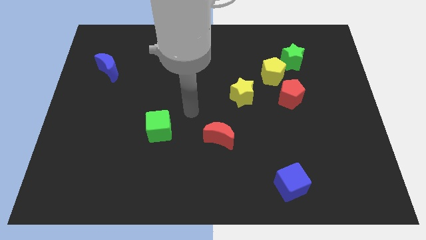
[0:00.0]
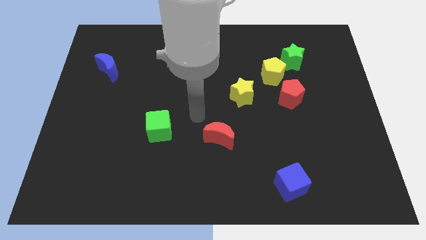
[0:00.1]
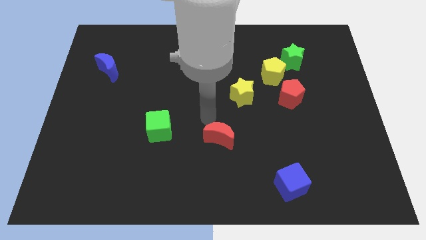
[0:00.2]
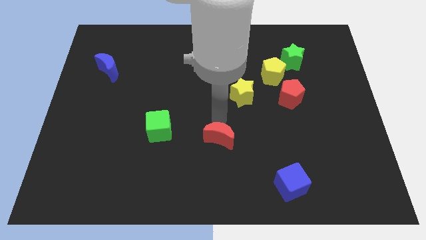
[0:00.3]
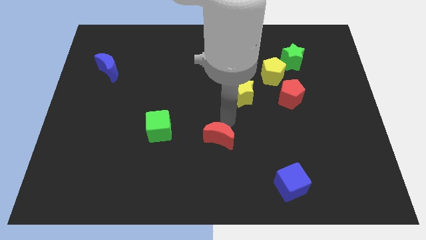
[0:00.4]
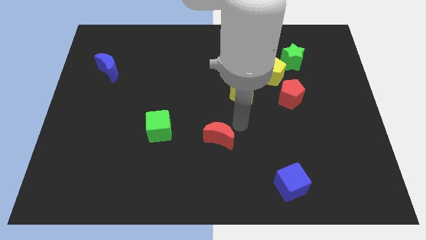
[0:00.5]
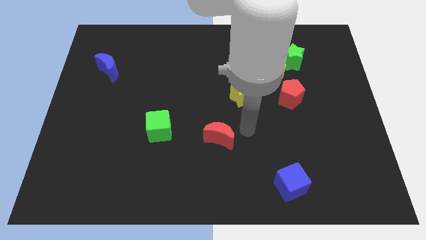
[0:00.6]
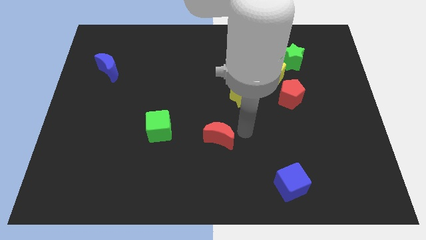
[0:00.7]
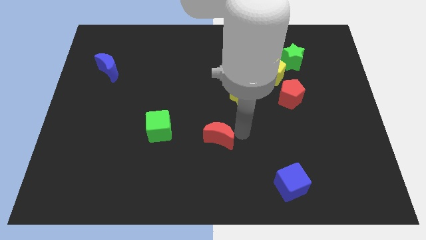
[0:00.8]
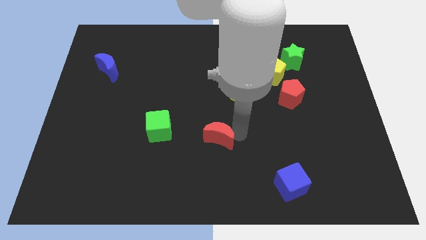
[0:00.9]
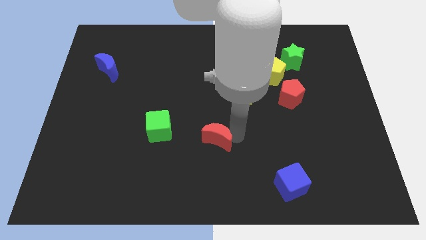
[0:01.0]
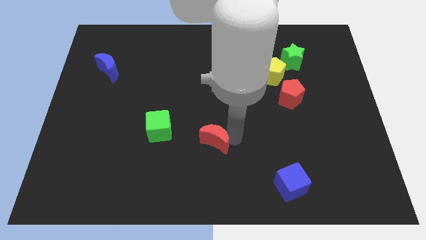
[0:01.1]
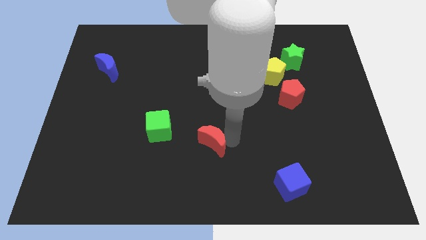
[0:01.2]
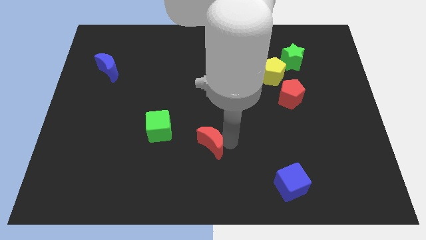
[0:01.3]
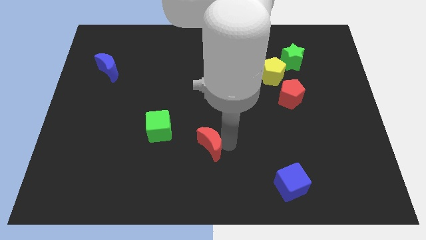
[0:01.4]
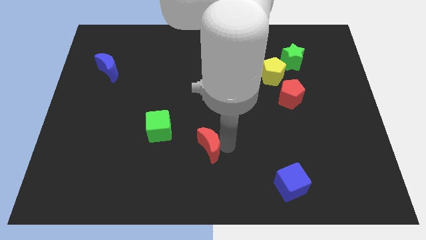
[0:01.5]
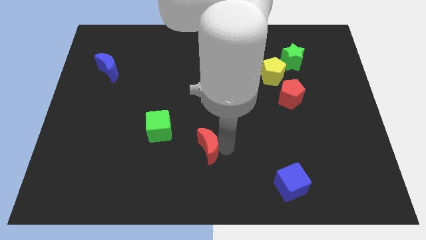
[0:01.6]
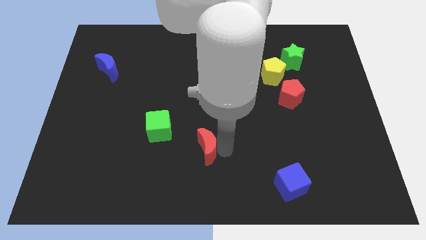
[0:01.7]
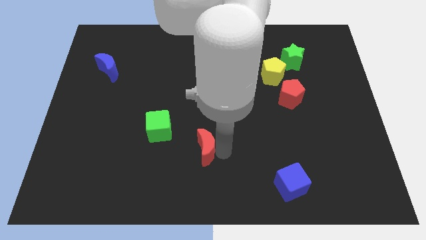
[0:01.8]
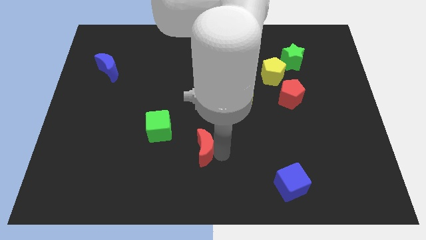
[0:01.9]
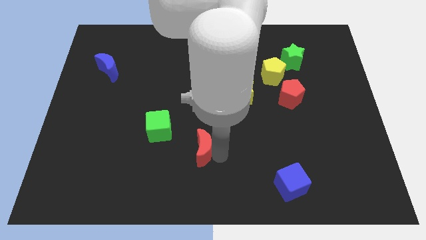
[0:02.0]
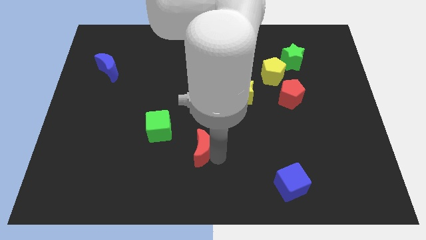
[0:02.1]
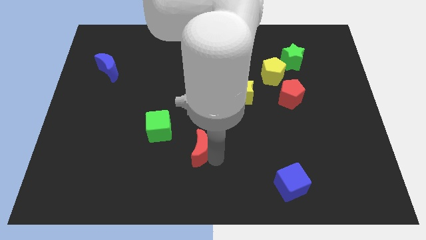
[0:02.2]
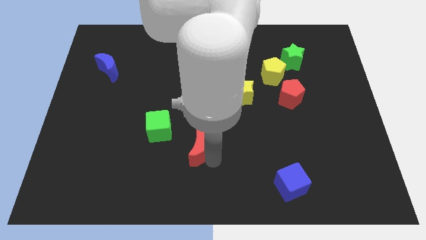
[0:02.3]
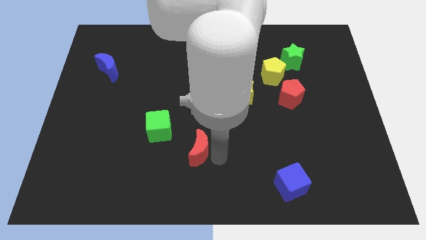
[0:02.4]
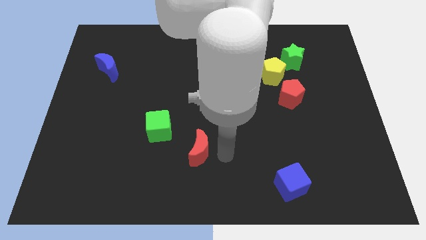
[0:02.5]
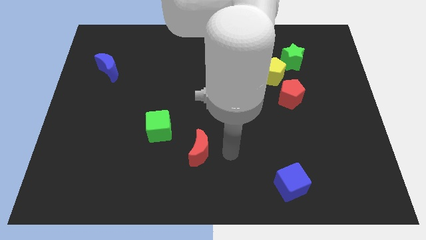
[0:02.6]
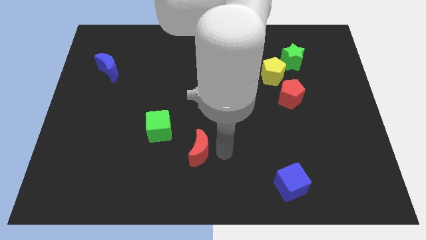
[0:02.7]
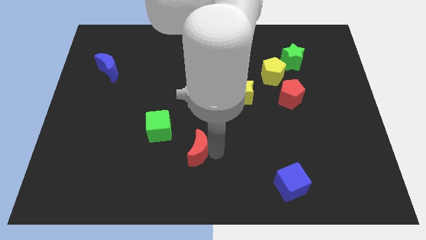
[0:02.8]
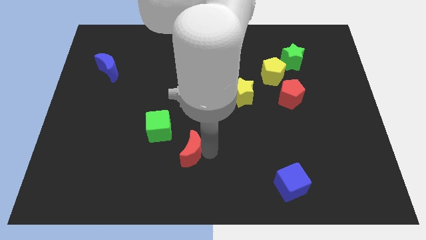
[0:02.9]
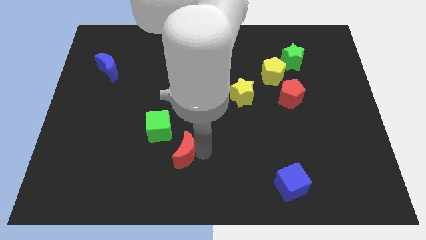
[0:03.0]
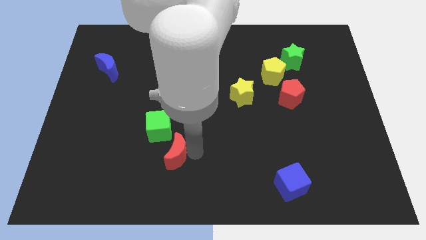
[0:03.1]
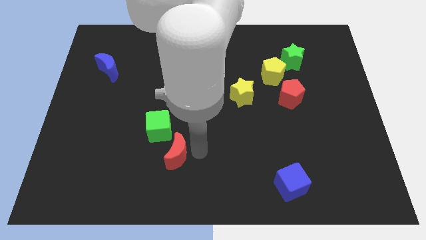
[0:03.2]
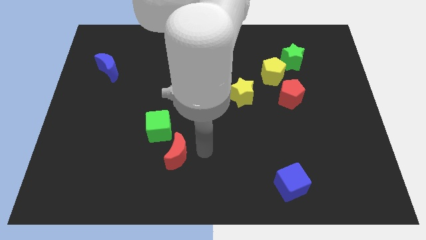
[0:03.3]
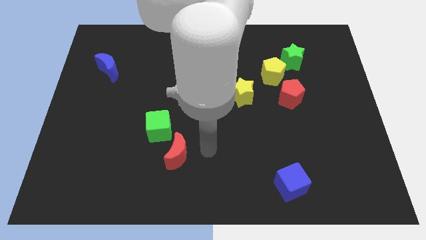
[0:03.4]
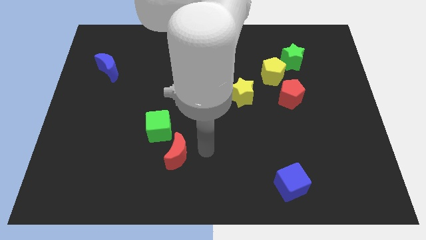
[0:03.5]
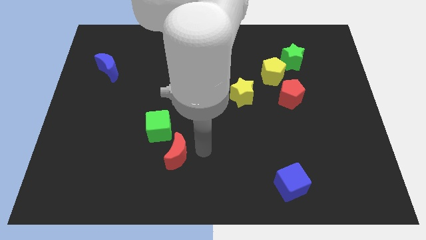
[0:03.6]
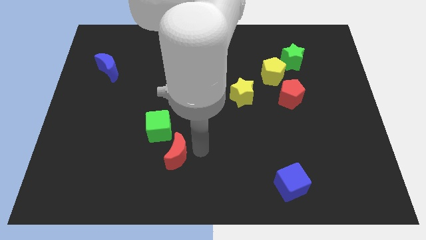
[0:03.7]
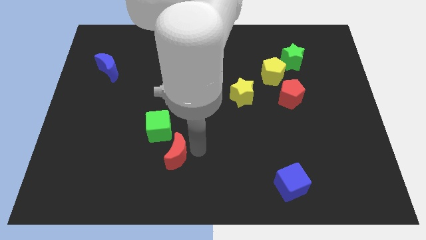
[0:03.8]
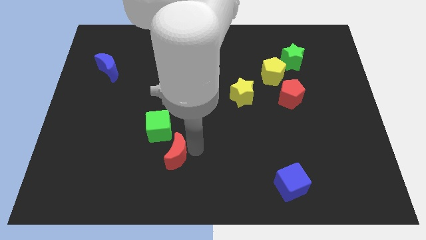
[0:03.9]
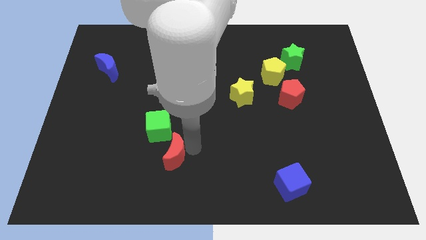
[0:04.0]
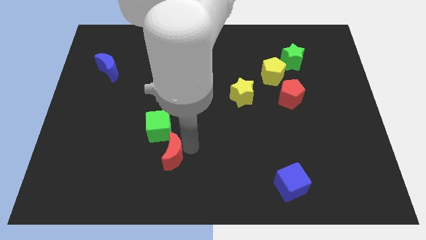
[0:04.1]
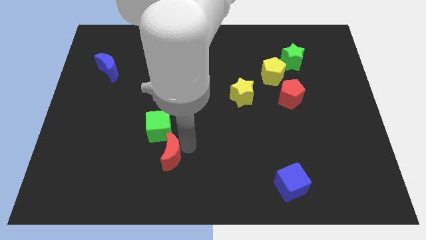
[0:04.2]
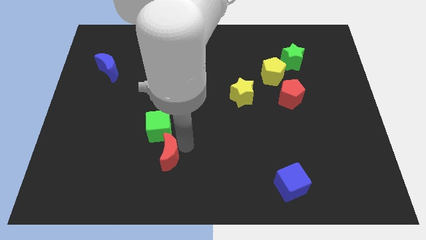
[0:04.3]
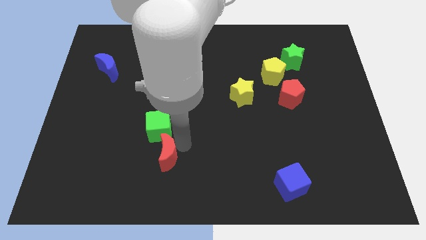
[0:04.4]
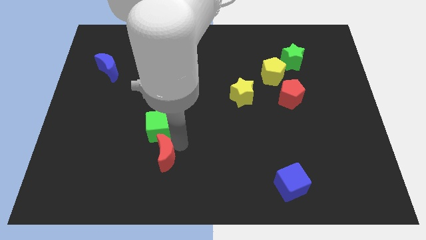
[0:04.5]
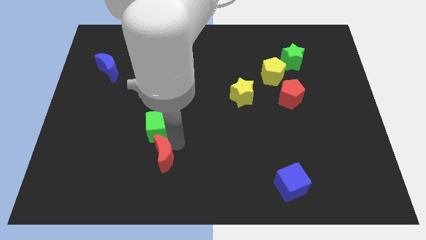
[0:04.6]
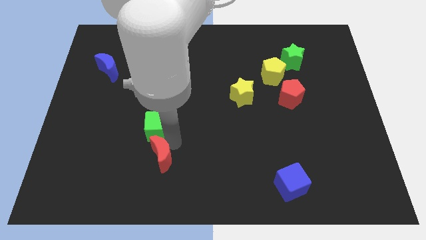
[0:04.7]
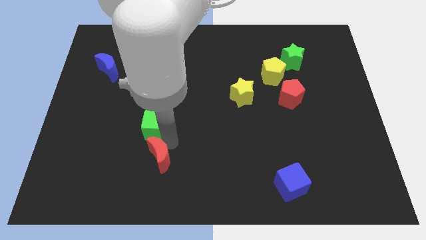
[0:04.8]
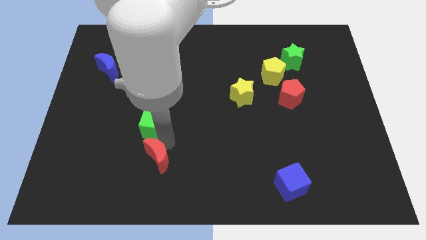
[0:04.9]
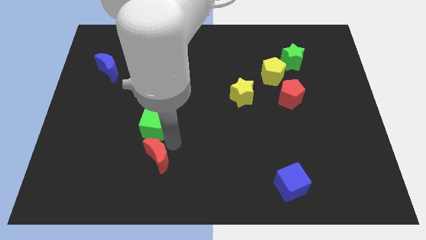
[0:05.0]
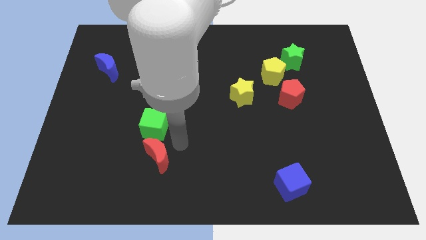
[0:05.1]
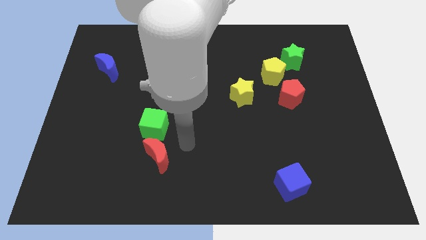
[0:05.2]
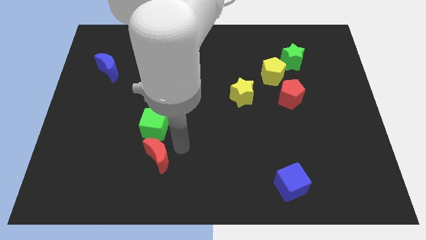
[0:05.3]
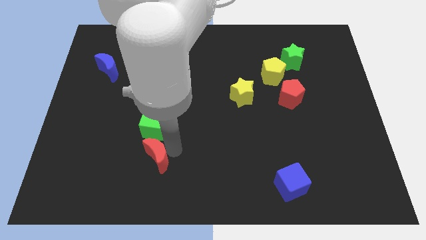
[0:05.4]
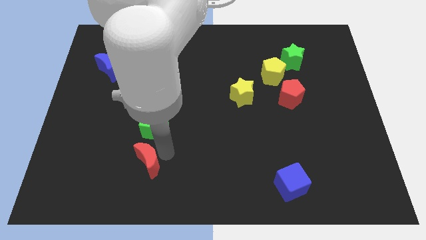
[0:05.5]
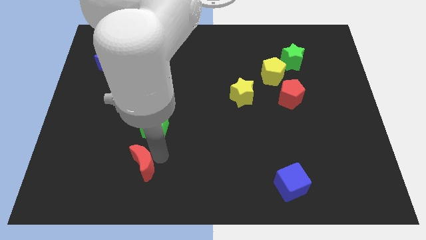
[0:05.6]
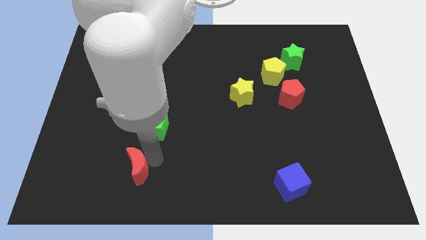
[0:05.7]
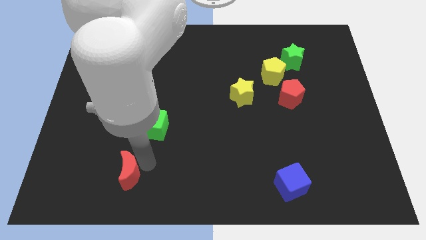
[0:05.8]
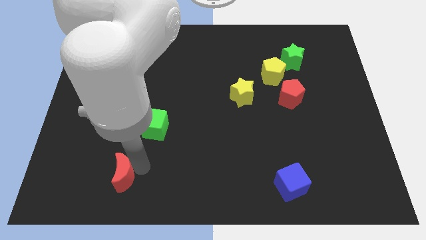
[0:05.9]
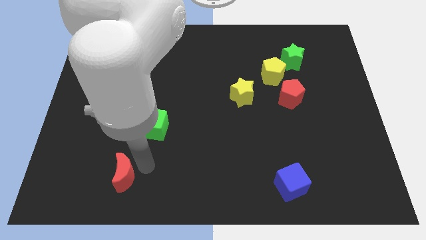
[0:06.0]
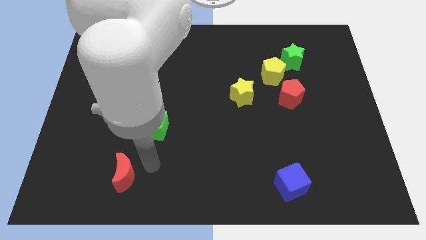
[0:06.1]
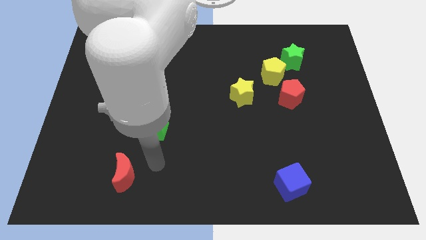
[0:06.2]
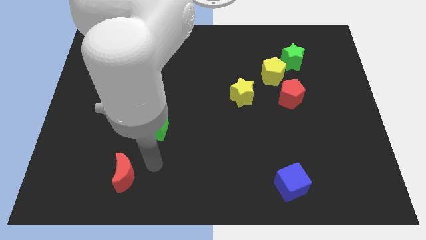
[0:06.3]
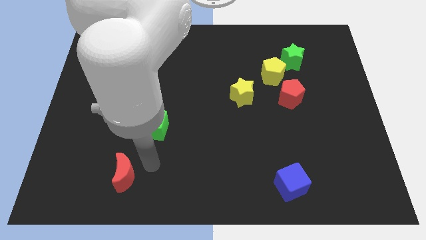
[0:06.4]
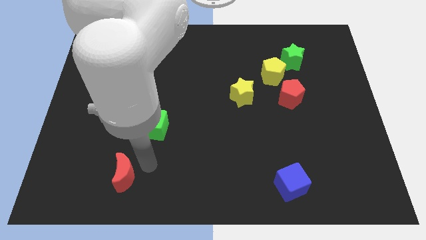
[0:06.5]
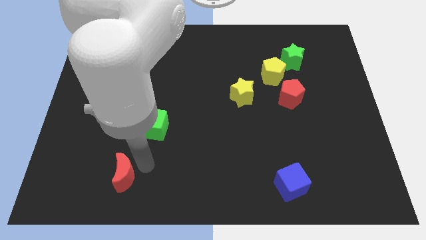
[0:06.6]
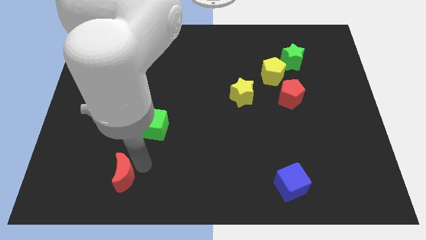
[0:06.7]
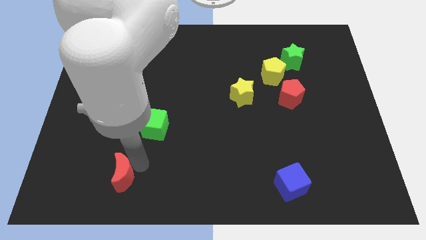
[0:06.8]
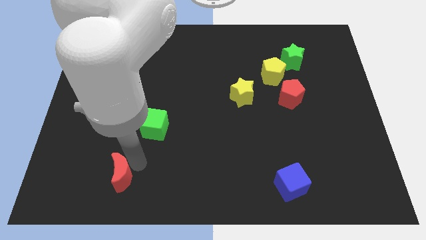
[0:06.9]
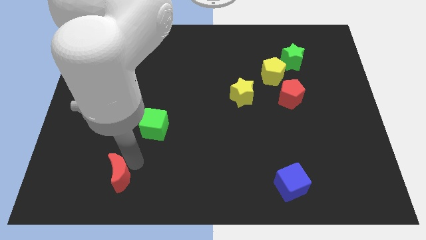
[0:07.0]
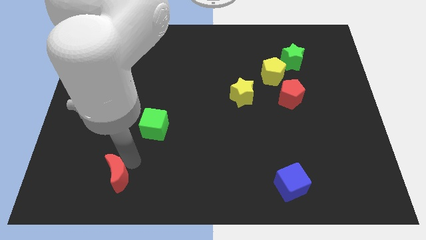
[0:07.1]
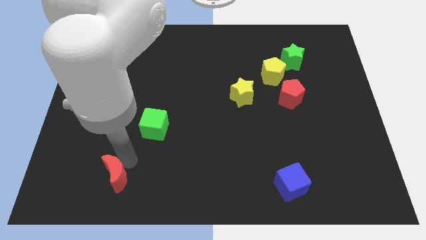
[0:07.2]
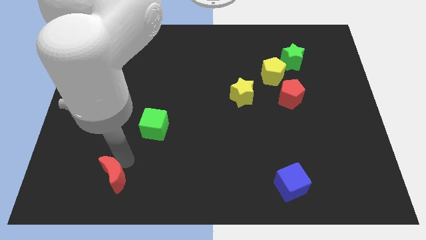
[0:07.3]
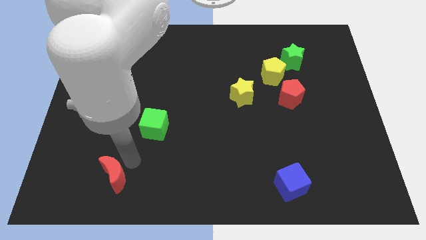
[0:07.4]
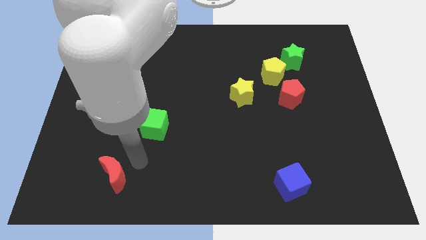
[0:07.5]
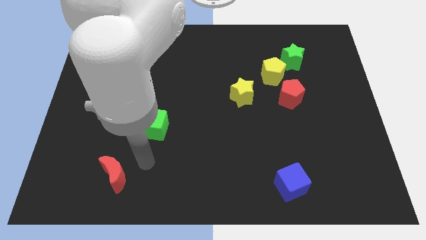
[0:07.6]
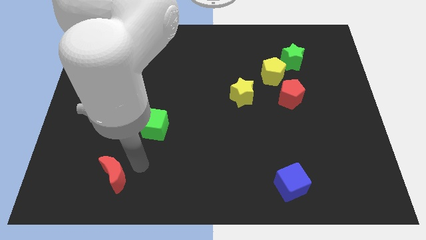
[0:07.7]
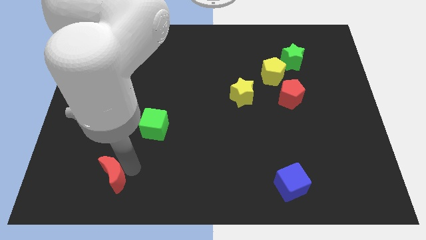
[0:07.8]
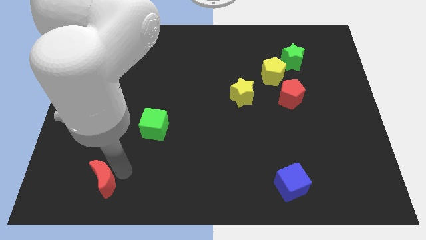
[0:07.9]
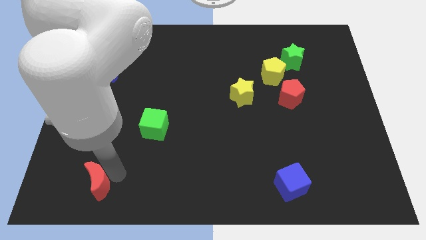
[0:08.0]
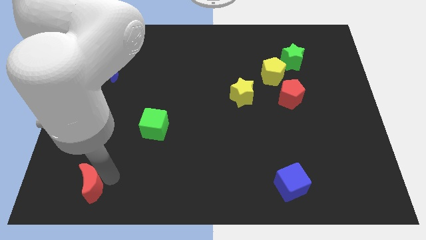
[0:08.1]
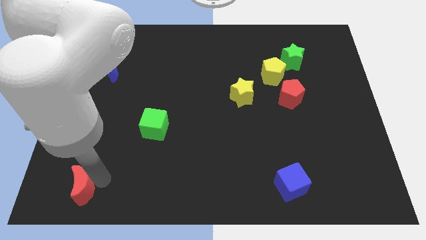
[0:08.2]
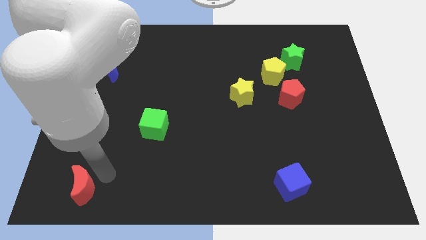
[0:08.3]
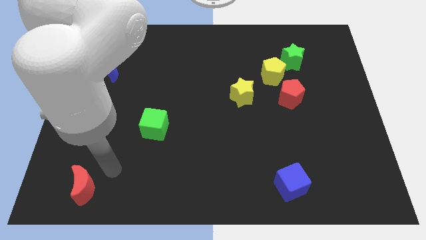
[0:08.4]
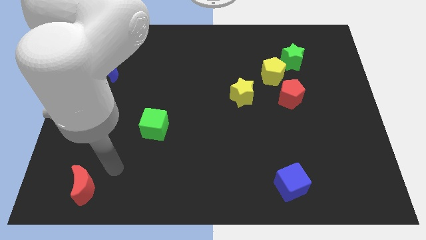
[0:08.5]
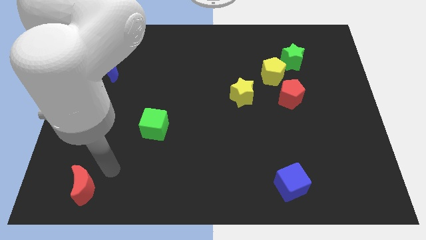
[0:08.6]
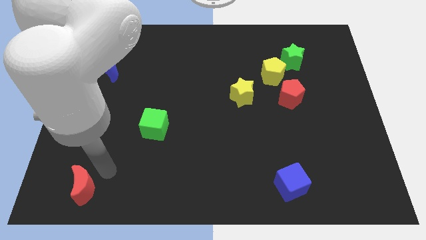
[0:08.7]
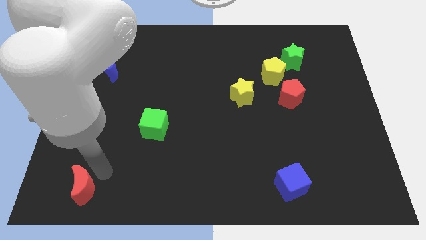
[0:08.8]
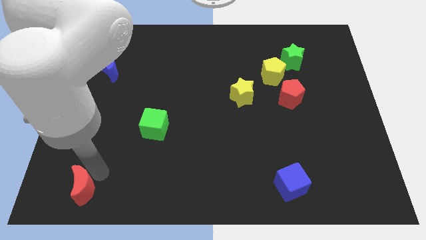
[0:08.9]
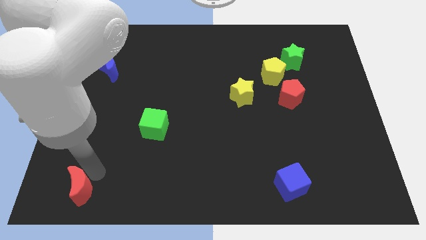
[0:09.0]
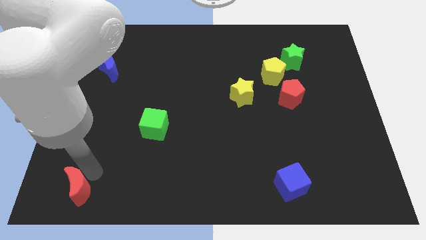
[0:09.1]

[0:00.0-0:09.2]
move the red moon to the lower left corner
